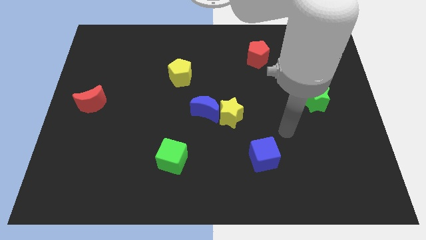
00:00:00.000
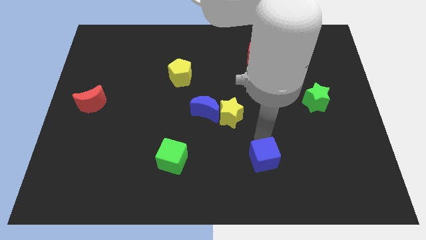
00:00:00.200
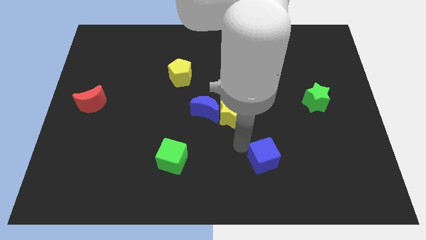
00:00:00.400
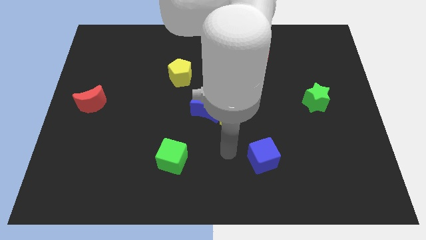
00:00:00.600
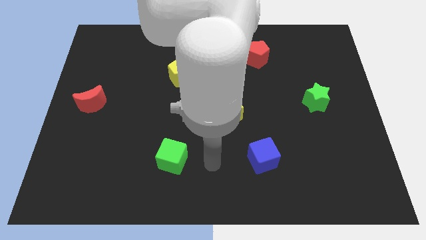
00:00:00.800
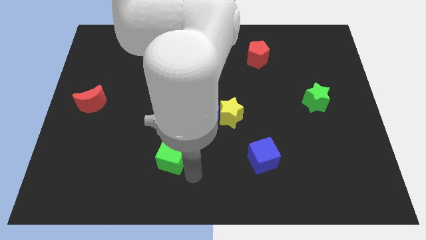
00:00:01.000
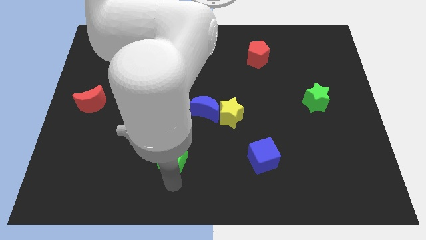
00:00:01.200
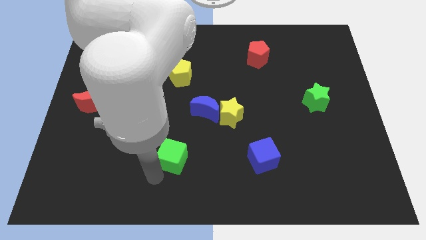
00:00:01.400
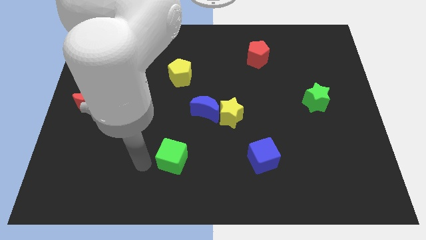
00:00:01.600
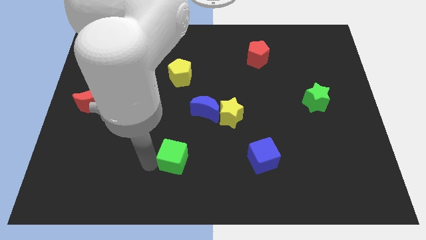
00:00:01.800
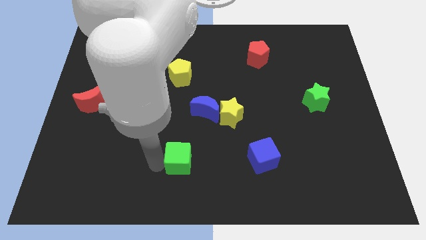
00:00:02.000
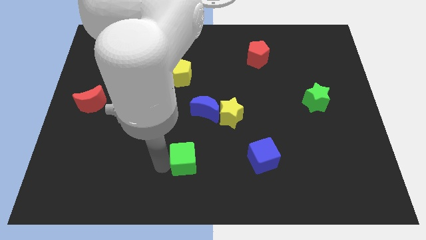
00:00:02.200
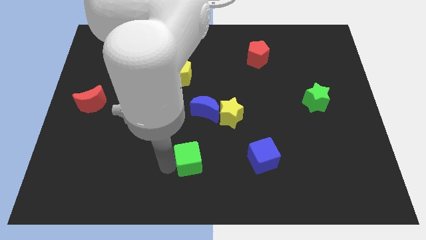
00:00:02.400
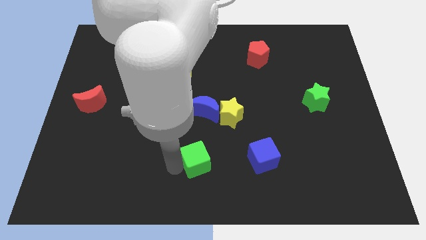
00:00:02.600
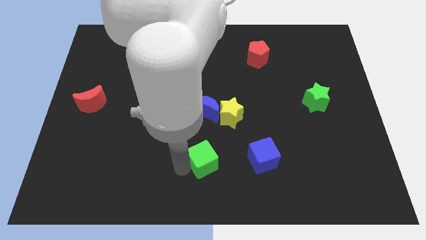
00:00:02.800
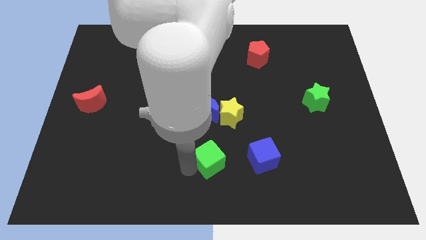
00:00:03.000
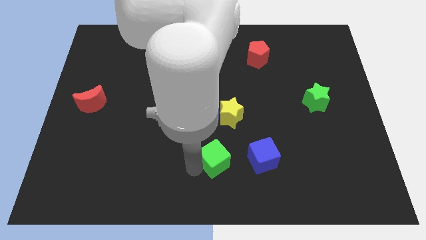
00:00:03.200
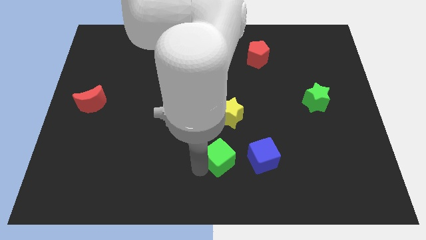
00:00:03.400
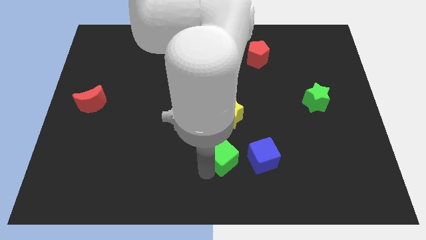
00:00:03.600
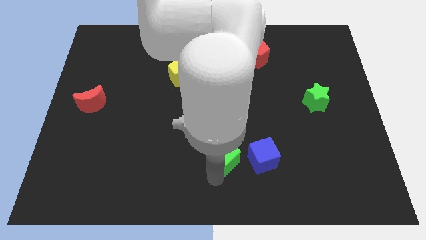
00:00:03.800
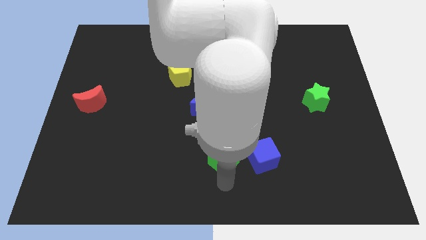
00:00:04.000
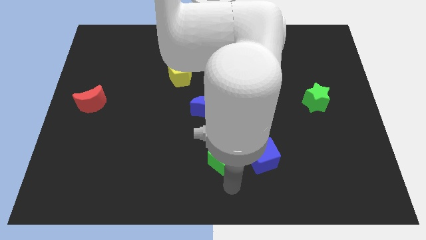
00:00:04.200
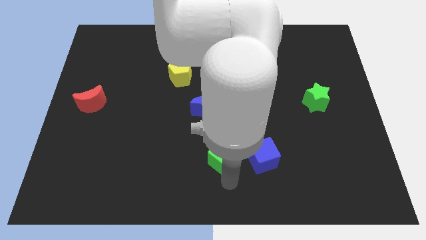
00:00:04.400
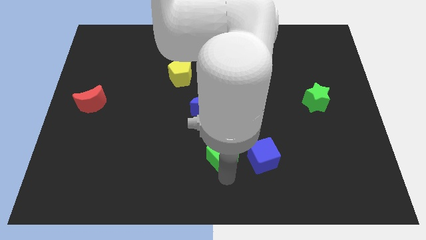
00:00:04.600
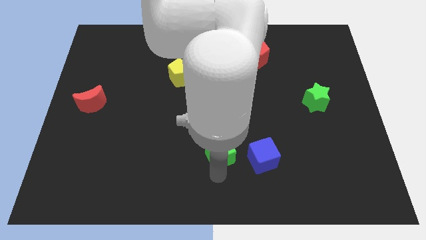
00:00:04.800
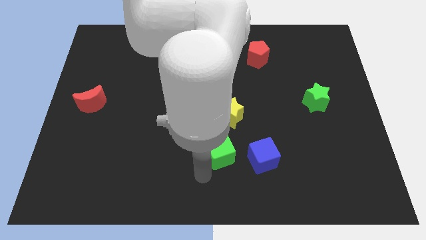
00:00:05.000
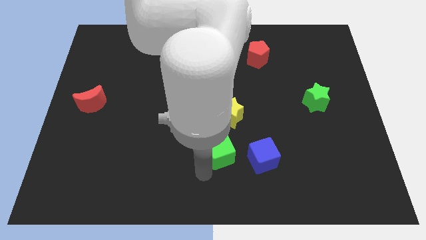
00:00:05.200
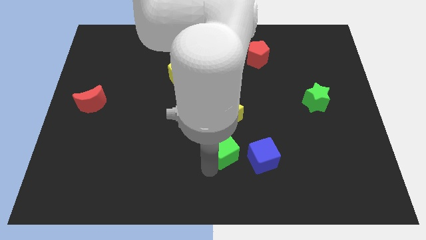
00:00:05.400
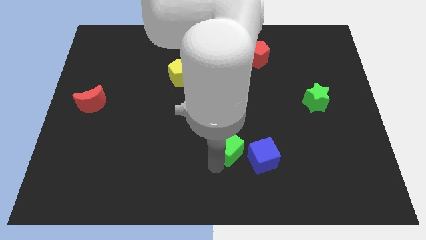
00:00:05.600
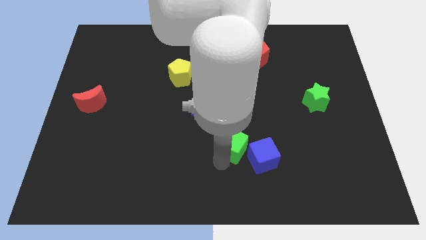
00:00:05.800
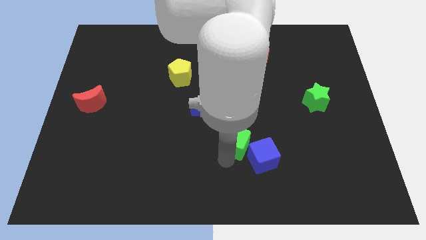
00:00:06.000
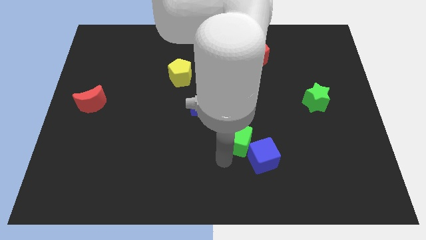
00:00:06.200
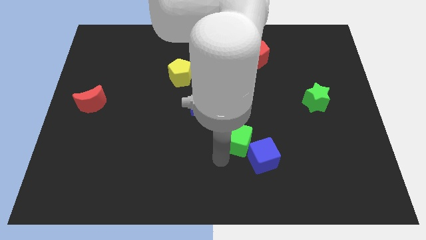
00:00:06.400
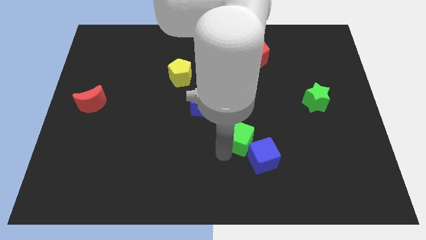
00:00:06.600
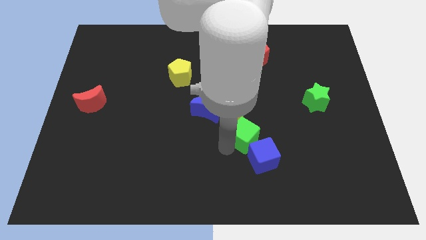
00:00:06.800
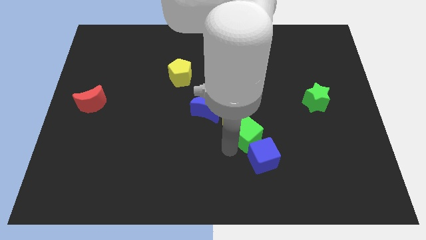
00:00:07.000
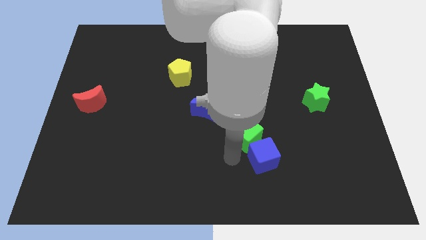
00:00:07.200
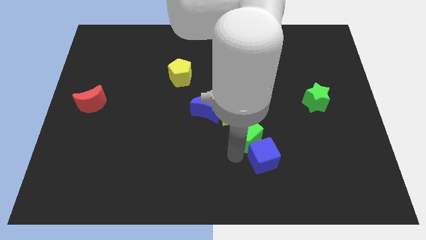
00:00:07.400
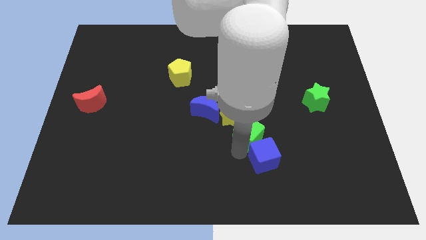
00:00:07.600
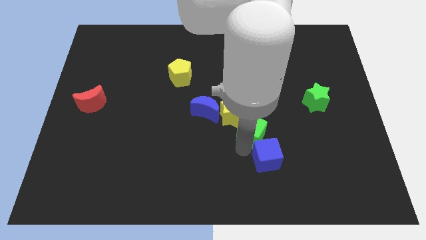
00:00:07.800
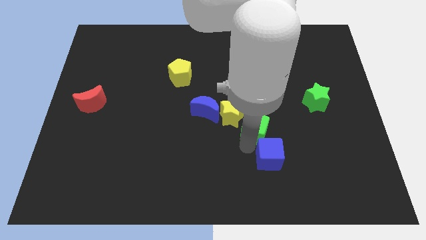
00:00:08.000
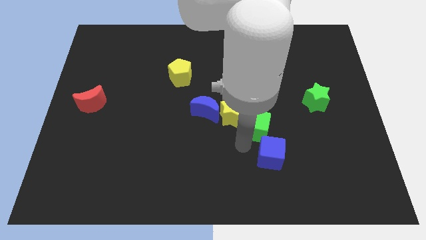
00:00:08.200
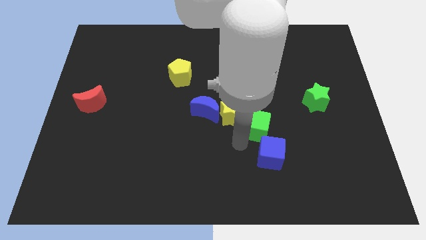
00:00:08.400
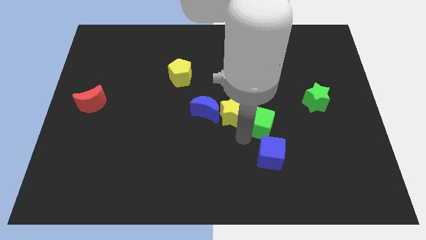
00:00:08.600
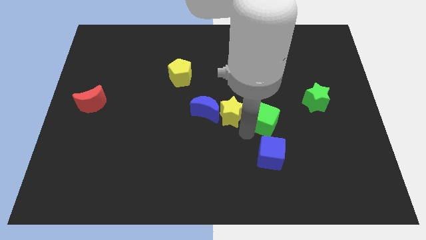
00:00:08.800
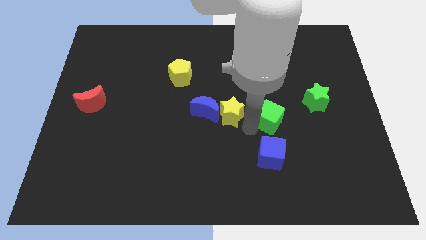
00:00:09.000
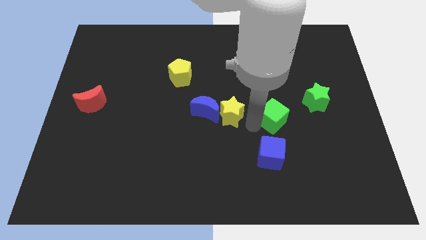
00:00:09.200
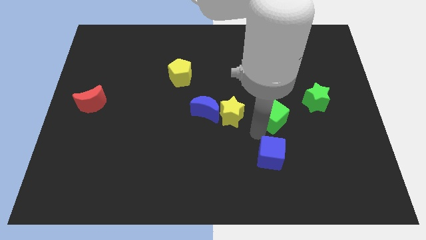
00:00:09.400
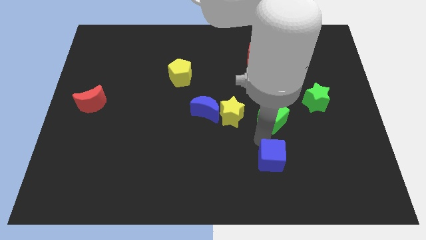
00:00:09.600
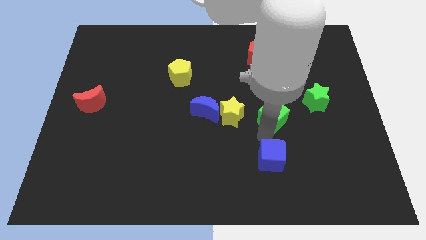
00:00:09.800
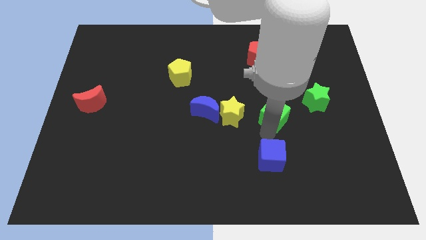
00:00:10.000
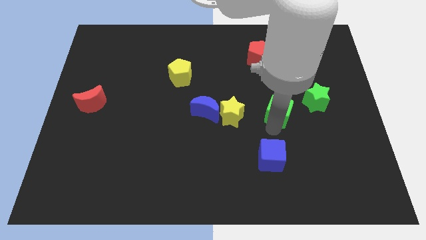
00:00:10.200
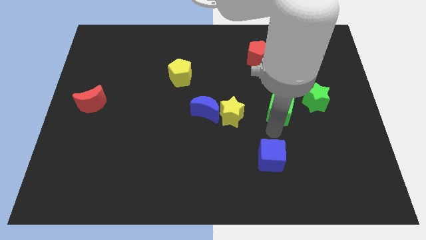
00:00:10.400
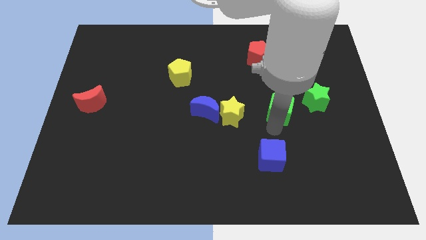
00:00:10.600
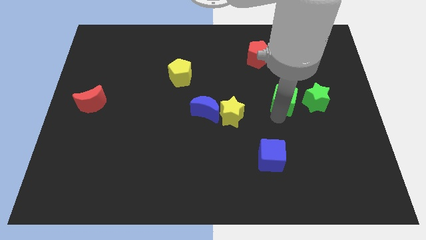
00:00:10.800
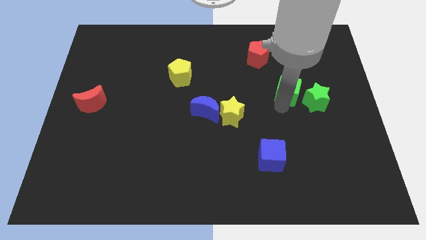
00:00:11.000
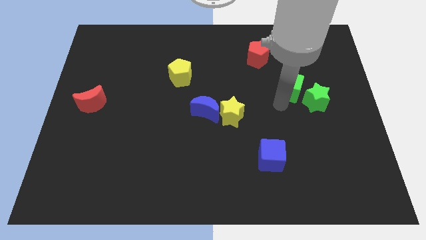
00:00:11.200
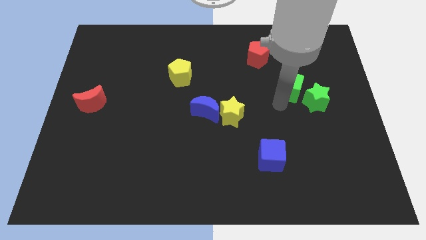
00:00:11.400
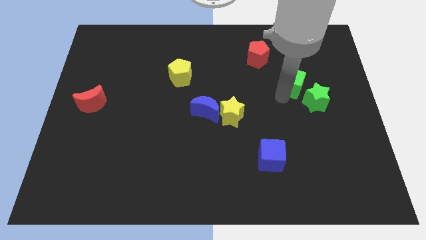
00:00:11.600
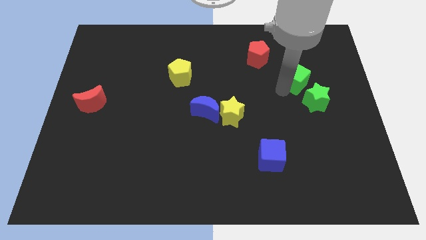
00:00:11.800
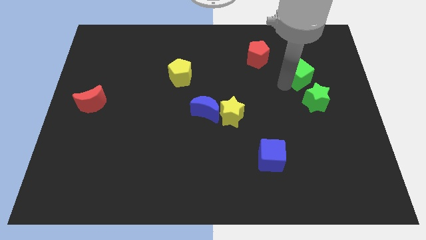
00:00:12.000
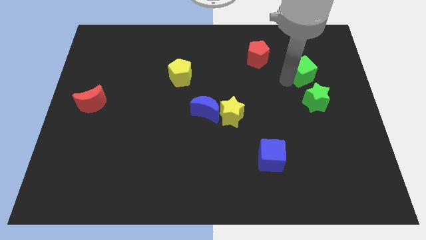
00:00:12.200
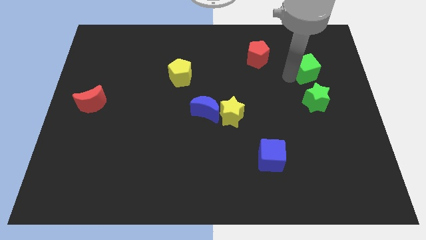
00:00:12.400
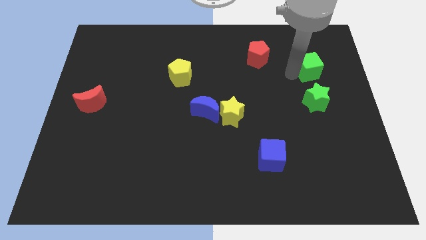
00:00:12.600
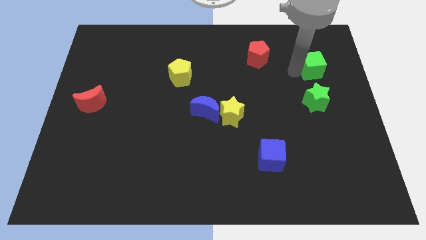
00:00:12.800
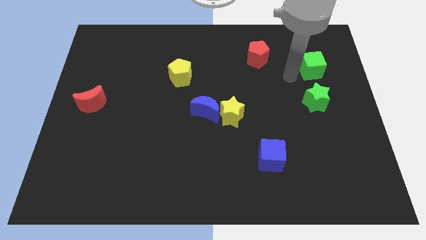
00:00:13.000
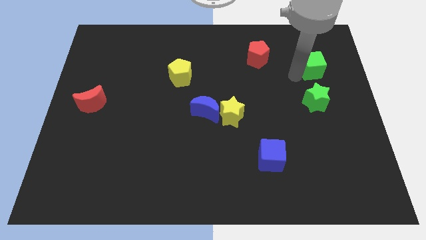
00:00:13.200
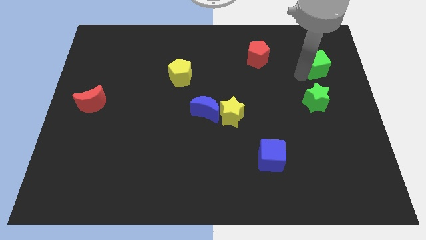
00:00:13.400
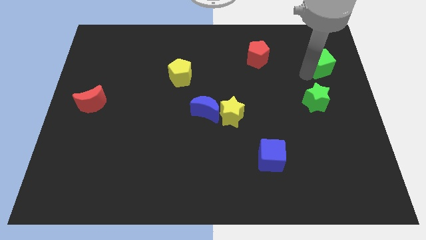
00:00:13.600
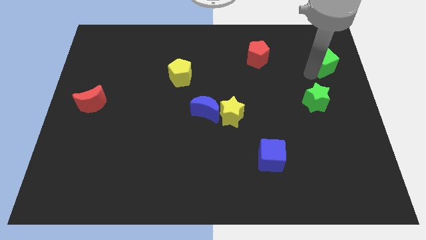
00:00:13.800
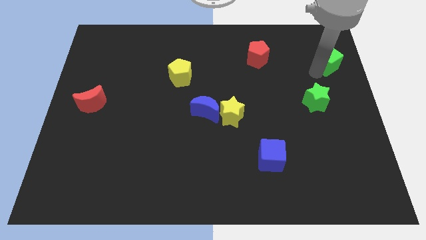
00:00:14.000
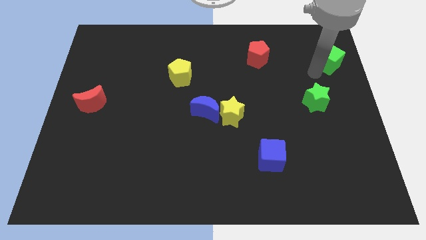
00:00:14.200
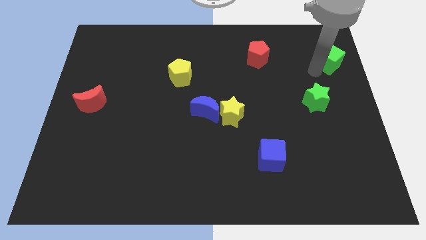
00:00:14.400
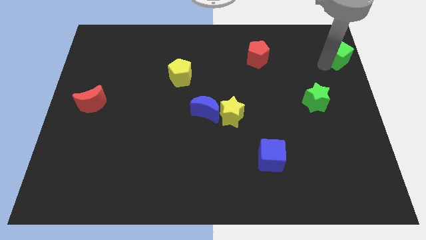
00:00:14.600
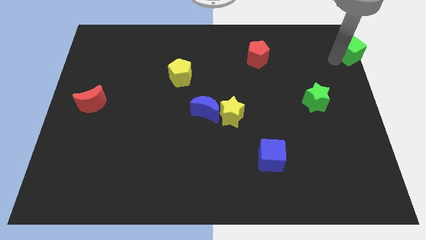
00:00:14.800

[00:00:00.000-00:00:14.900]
move the green cube to the top right of the board
